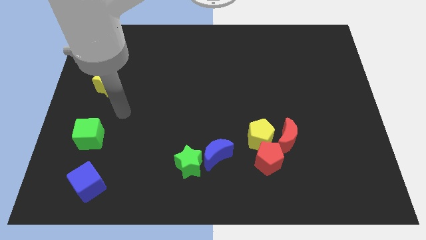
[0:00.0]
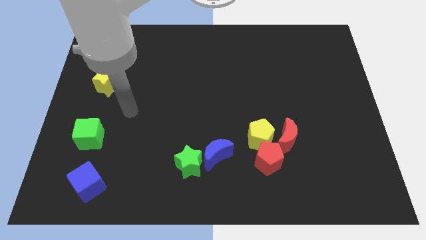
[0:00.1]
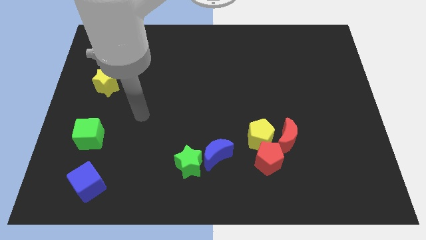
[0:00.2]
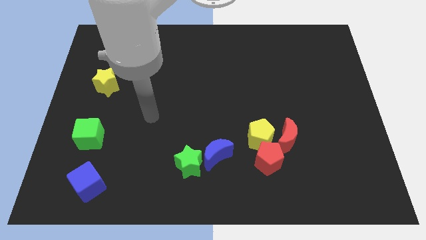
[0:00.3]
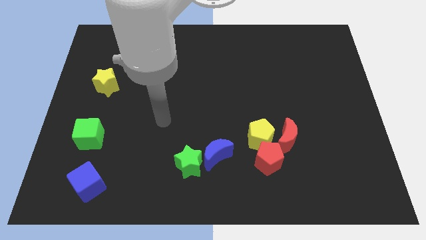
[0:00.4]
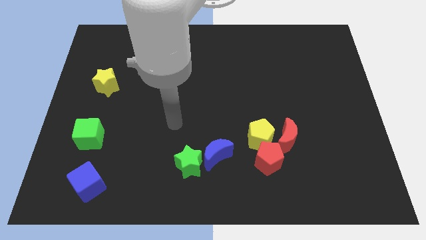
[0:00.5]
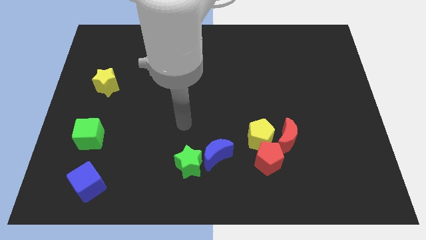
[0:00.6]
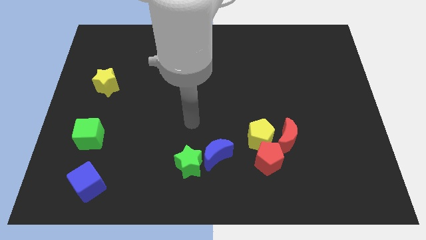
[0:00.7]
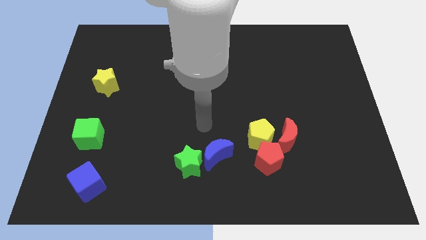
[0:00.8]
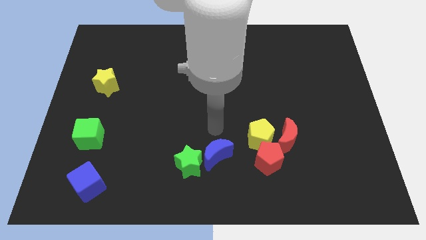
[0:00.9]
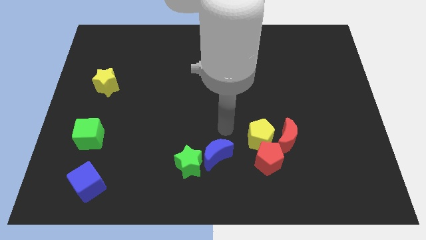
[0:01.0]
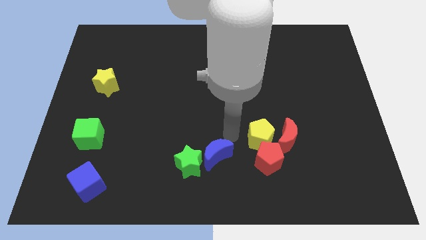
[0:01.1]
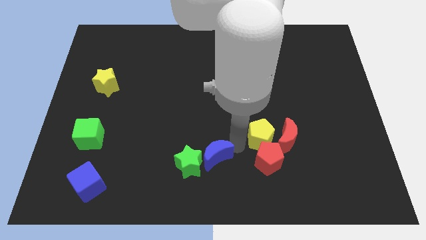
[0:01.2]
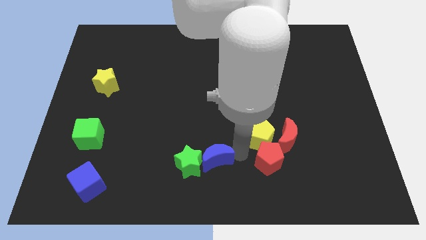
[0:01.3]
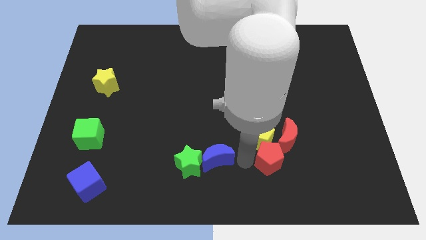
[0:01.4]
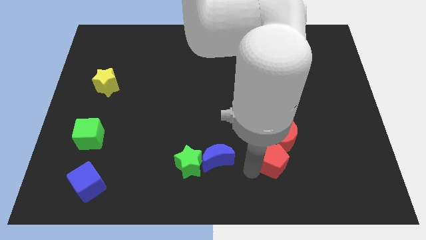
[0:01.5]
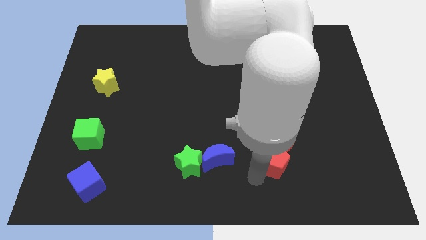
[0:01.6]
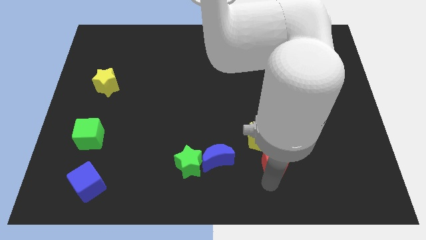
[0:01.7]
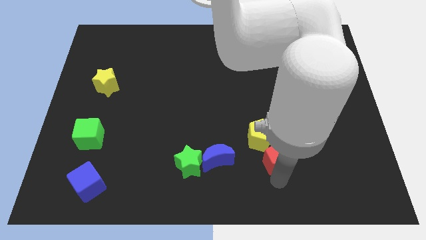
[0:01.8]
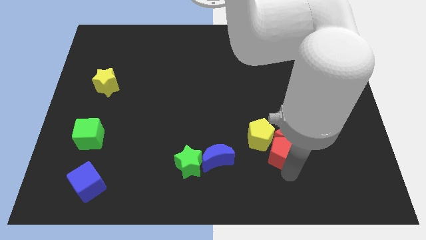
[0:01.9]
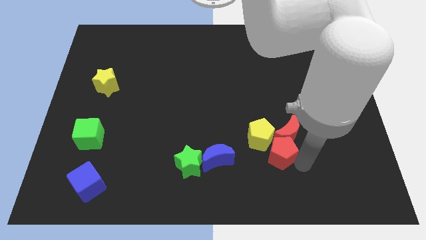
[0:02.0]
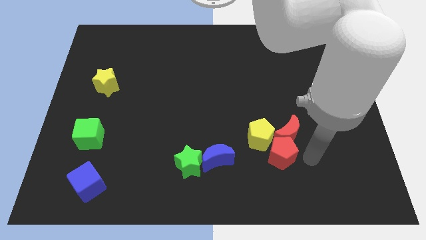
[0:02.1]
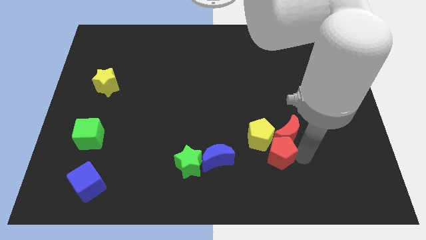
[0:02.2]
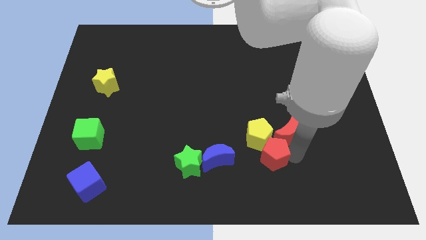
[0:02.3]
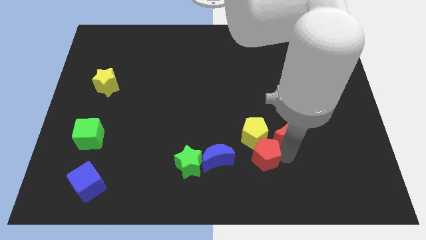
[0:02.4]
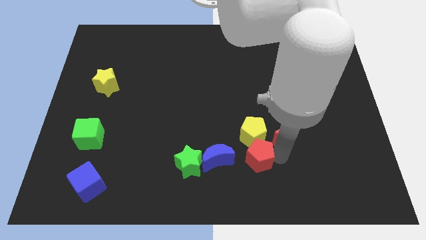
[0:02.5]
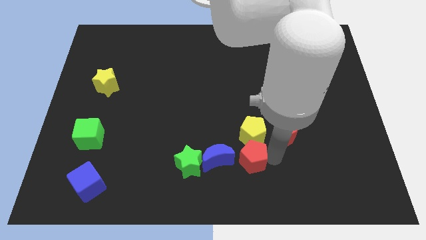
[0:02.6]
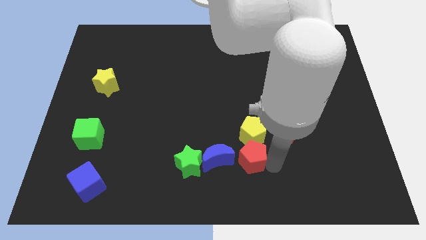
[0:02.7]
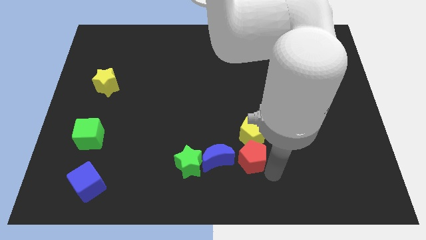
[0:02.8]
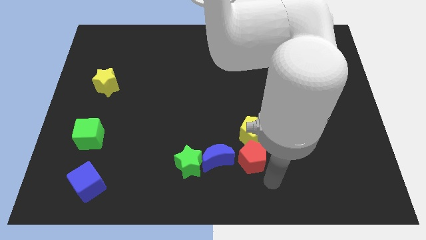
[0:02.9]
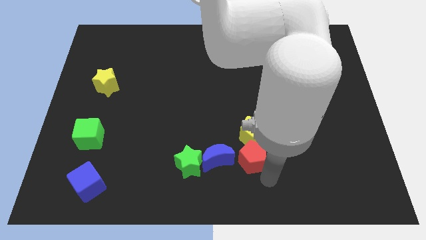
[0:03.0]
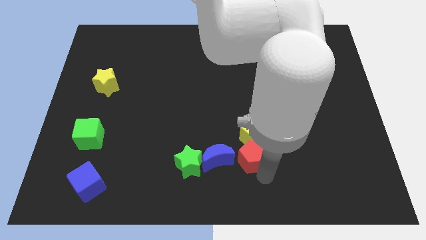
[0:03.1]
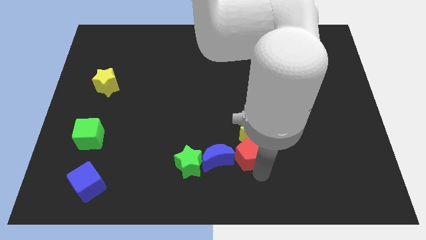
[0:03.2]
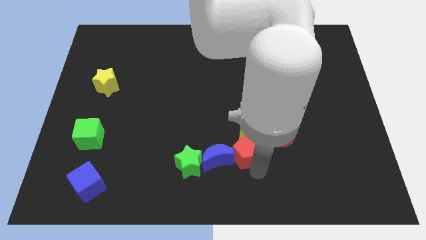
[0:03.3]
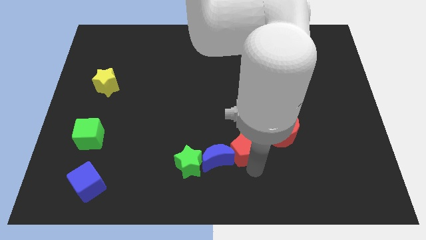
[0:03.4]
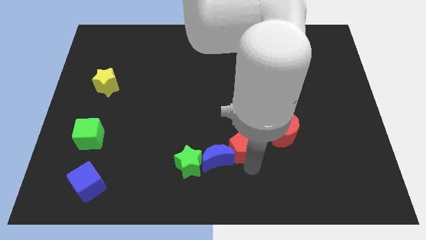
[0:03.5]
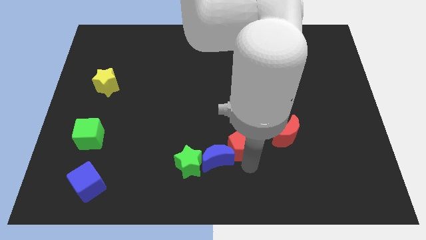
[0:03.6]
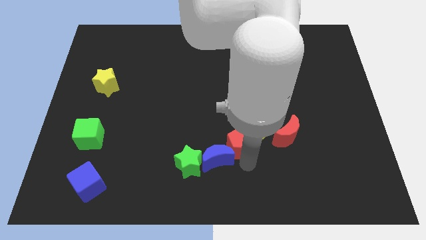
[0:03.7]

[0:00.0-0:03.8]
slightly slide the red pentagon upwards and to the left

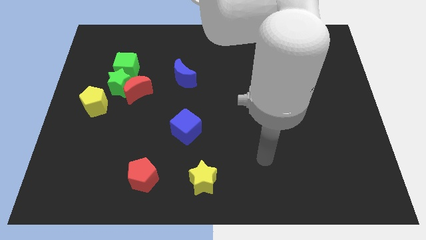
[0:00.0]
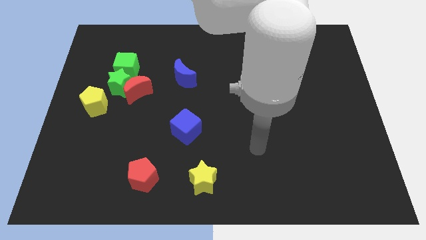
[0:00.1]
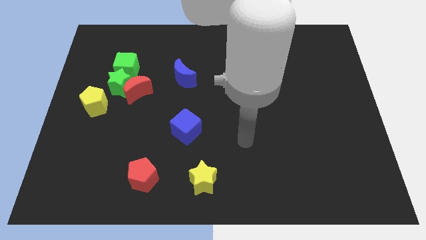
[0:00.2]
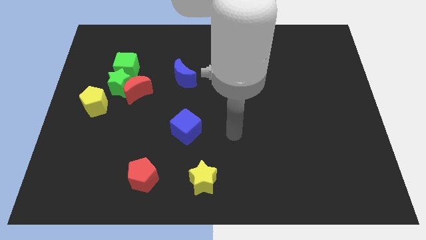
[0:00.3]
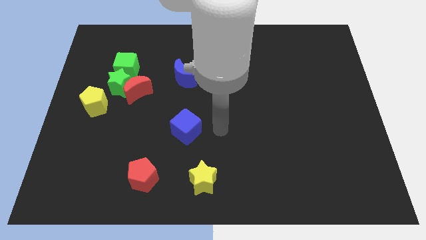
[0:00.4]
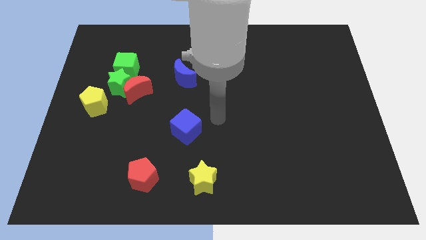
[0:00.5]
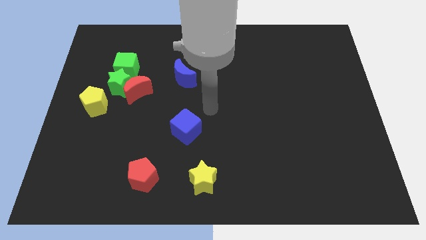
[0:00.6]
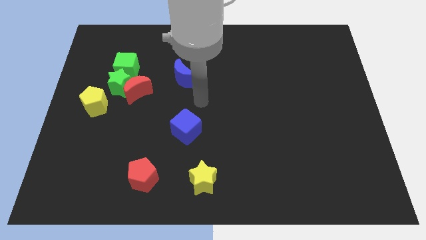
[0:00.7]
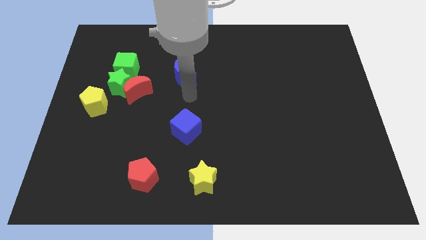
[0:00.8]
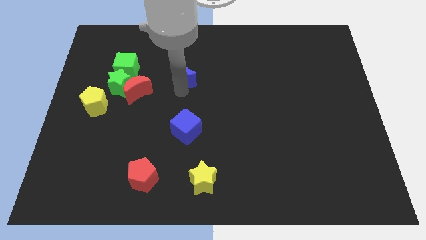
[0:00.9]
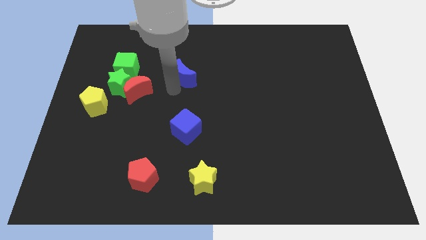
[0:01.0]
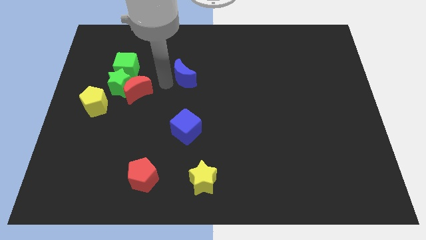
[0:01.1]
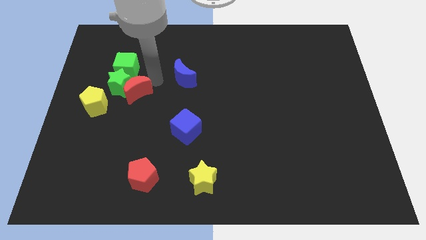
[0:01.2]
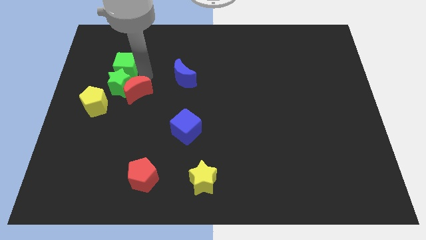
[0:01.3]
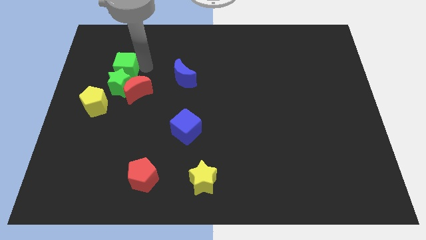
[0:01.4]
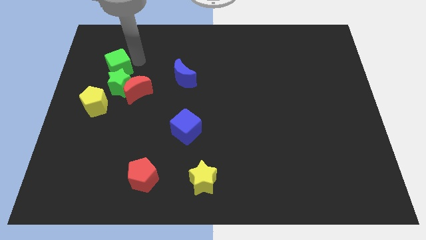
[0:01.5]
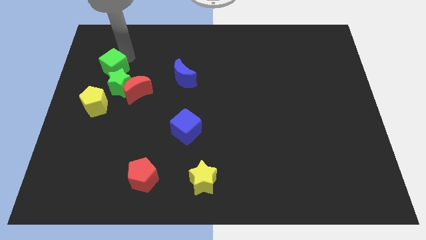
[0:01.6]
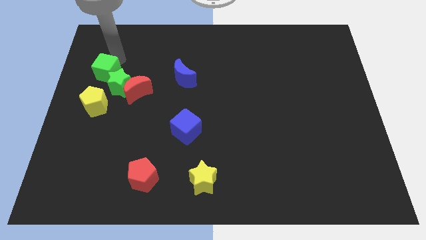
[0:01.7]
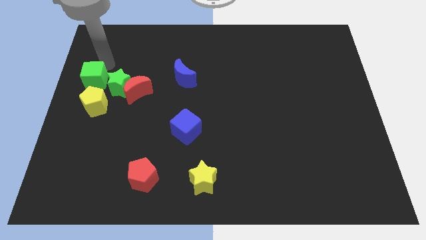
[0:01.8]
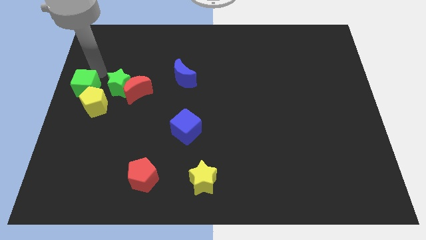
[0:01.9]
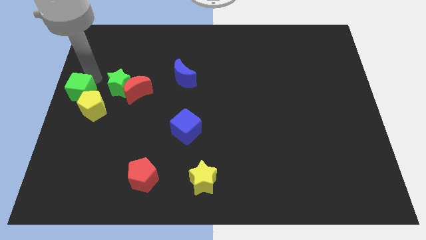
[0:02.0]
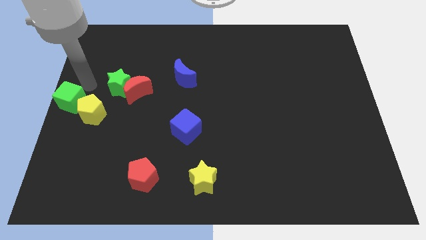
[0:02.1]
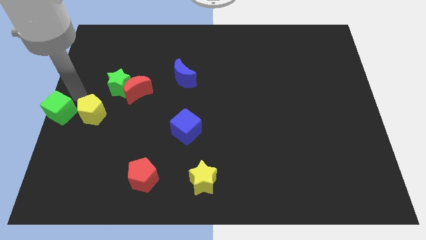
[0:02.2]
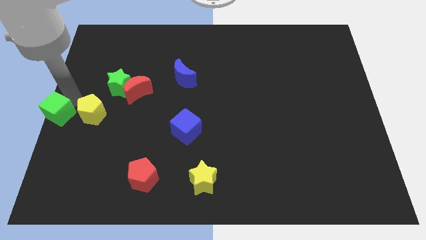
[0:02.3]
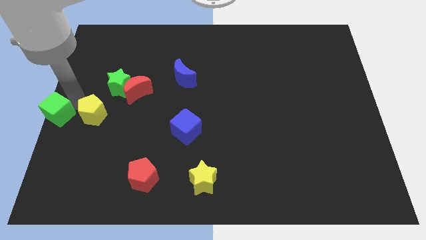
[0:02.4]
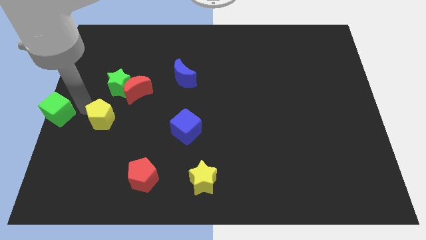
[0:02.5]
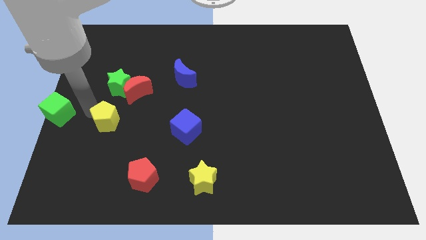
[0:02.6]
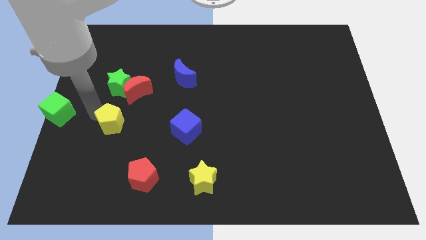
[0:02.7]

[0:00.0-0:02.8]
slightly push the yellow pentagon down and then to the right

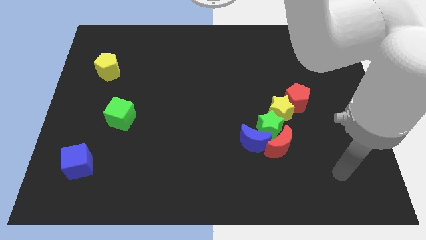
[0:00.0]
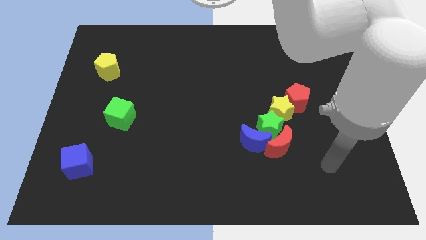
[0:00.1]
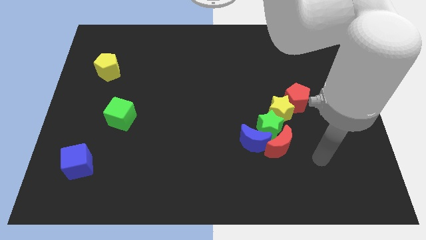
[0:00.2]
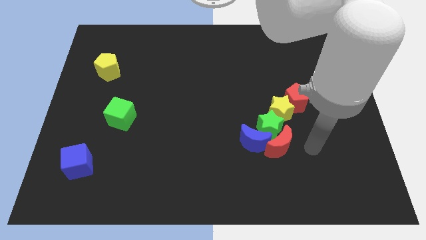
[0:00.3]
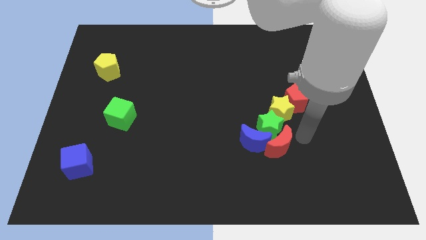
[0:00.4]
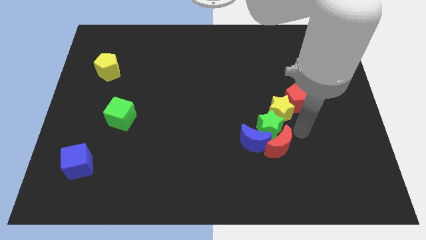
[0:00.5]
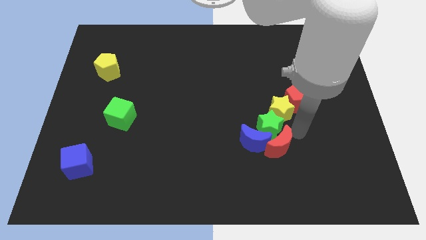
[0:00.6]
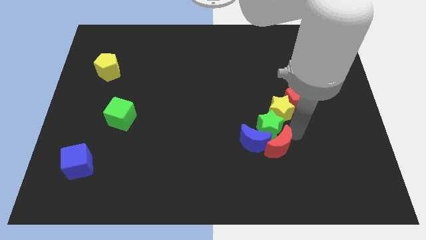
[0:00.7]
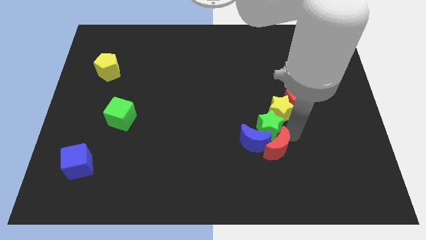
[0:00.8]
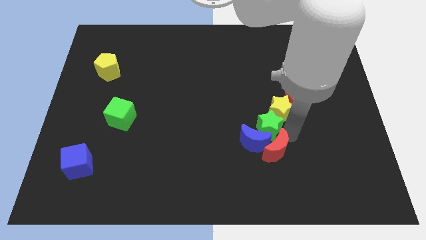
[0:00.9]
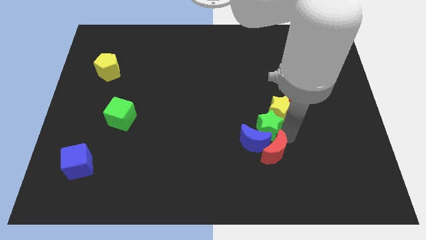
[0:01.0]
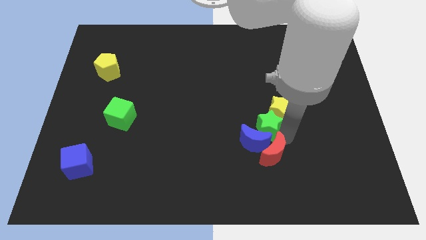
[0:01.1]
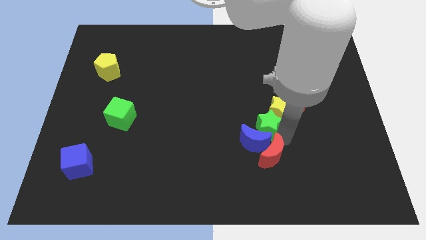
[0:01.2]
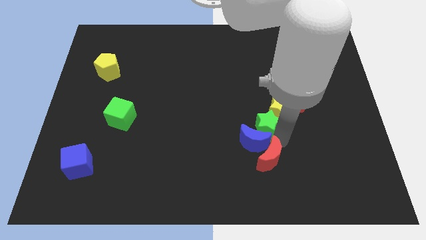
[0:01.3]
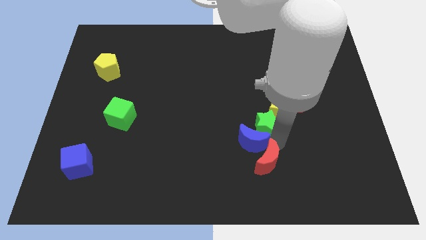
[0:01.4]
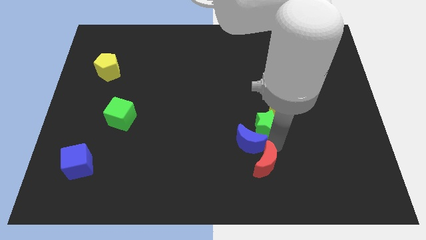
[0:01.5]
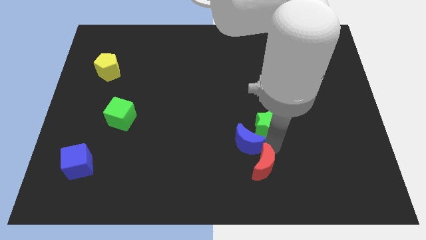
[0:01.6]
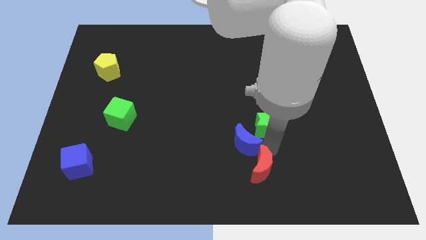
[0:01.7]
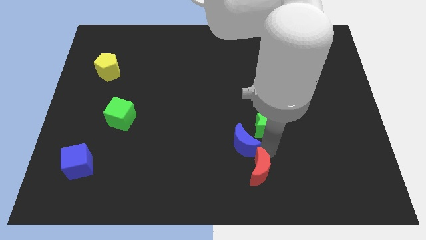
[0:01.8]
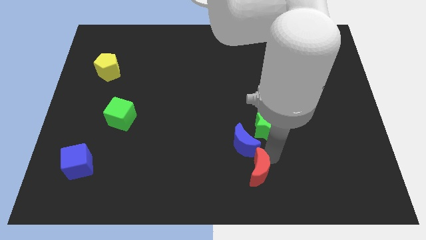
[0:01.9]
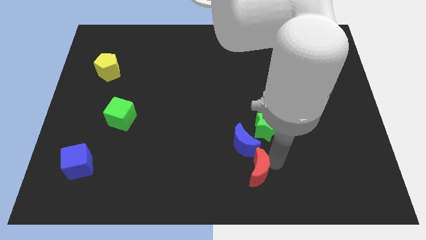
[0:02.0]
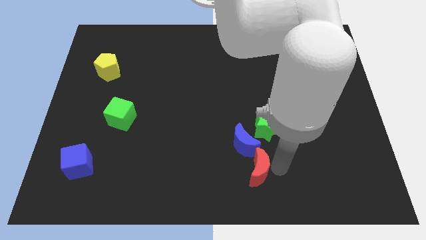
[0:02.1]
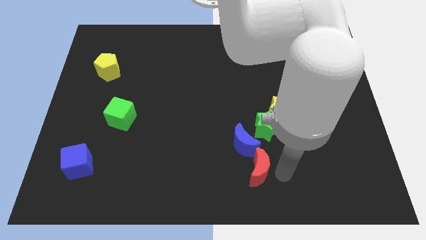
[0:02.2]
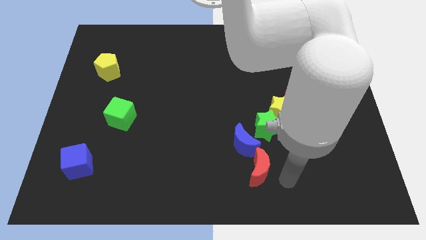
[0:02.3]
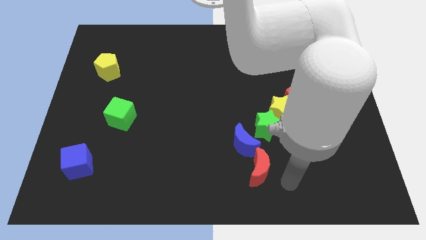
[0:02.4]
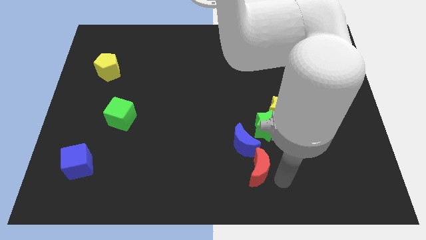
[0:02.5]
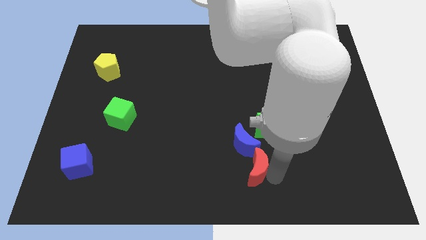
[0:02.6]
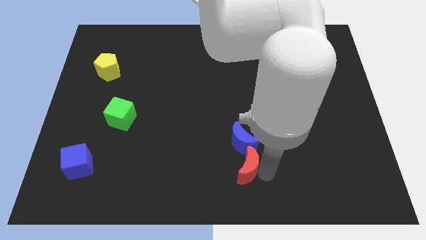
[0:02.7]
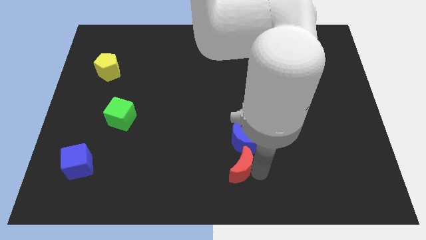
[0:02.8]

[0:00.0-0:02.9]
move the red moon somewhat left
